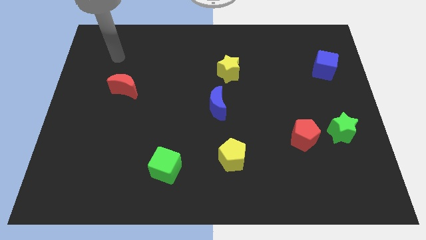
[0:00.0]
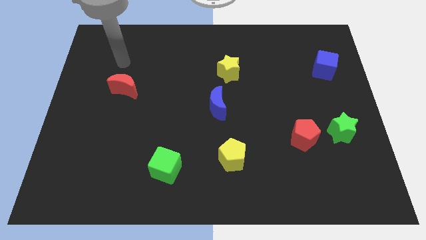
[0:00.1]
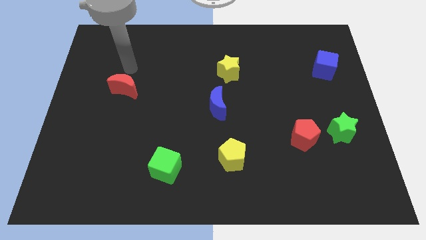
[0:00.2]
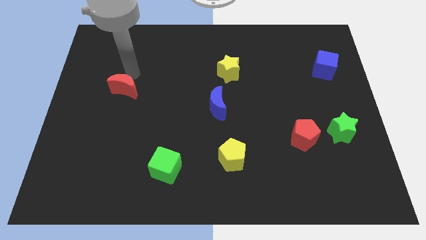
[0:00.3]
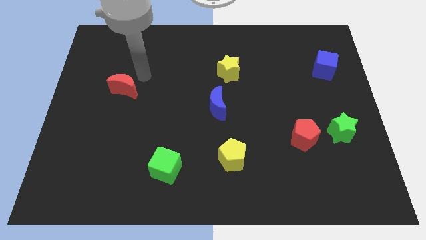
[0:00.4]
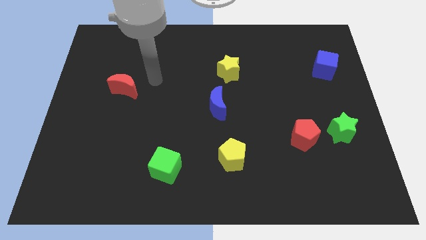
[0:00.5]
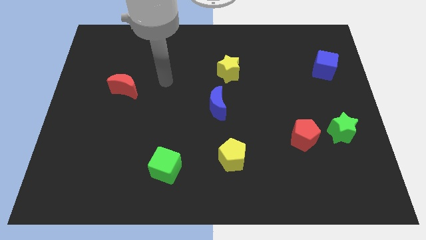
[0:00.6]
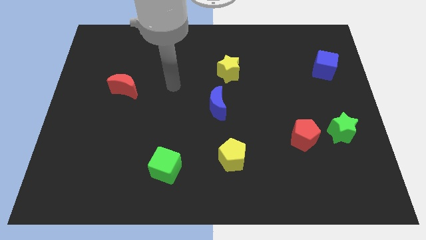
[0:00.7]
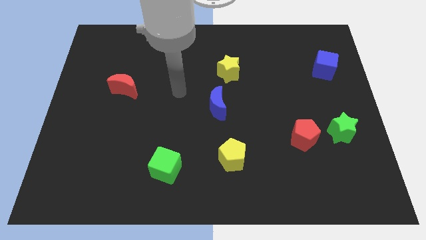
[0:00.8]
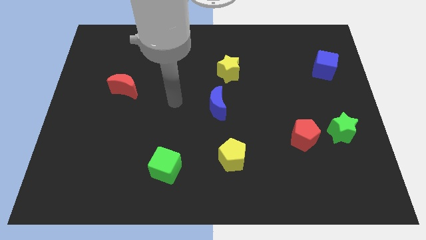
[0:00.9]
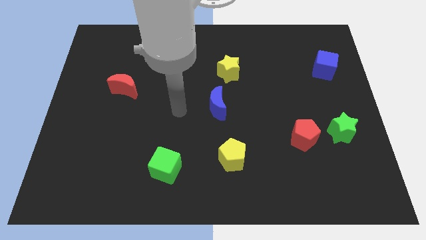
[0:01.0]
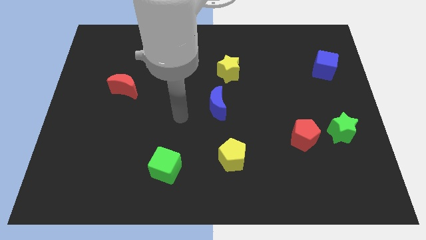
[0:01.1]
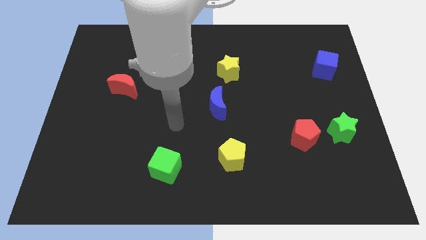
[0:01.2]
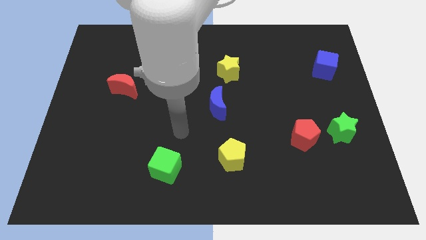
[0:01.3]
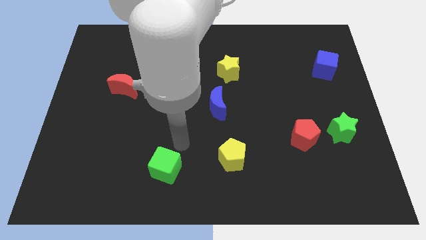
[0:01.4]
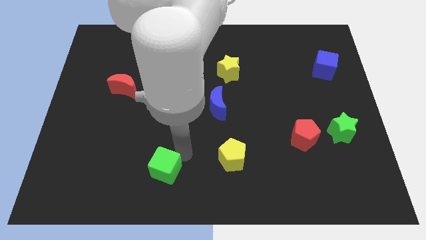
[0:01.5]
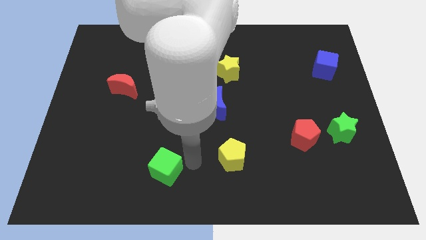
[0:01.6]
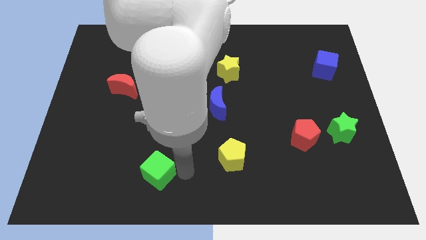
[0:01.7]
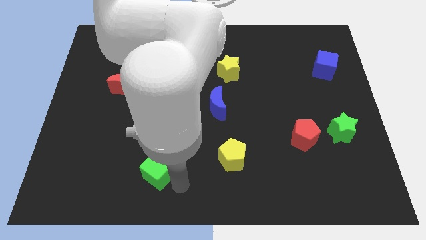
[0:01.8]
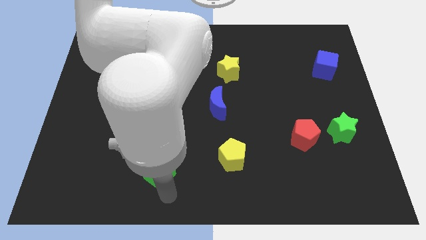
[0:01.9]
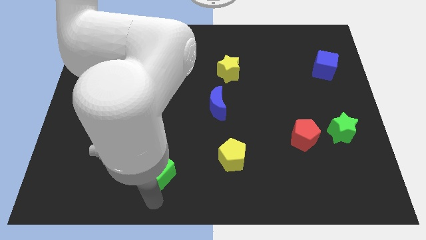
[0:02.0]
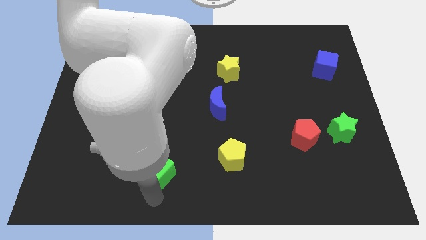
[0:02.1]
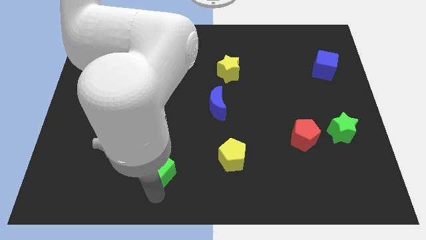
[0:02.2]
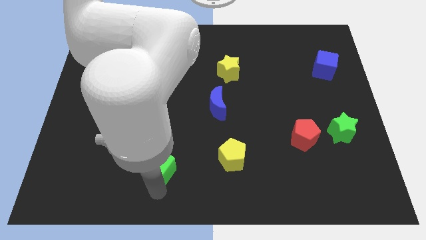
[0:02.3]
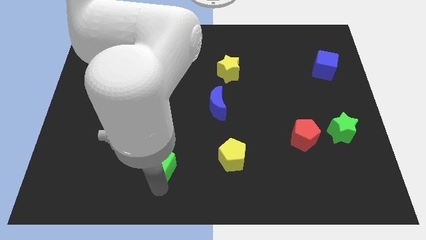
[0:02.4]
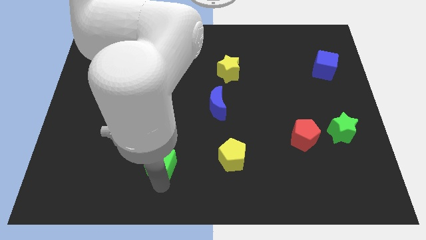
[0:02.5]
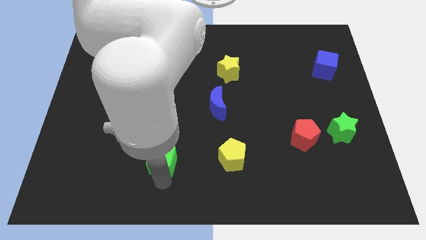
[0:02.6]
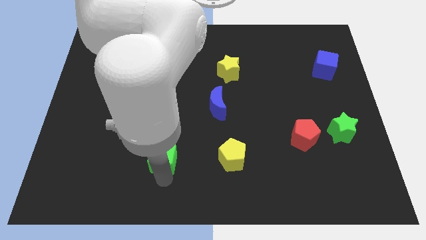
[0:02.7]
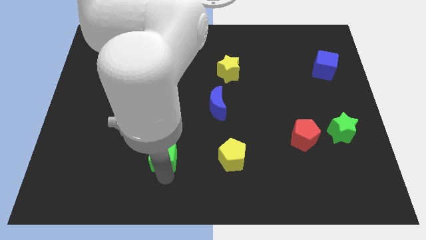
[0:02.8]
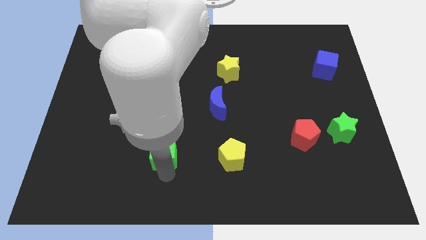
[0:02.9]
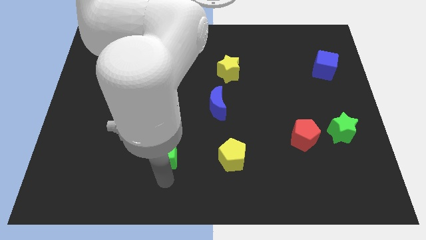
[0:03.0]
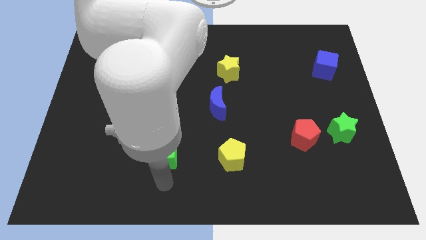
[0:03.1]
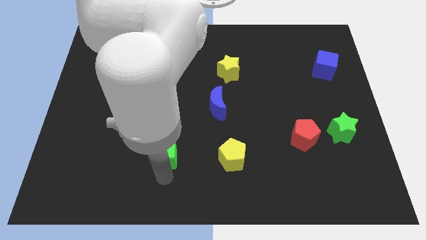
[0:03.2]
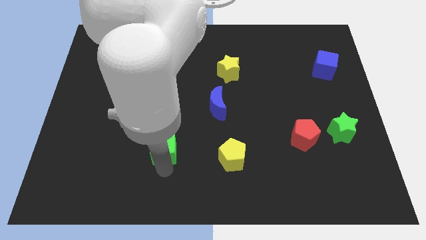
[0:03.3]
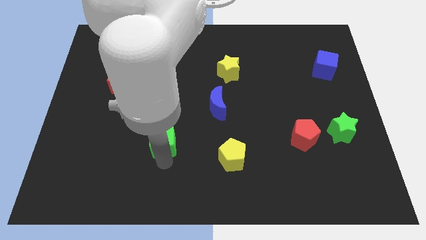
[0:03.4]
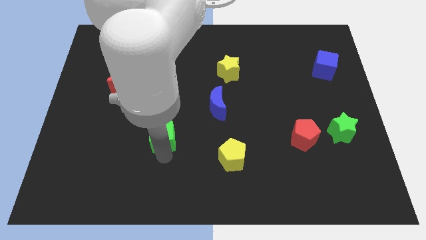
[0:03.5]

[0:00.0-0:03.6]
slide the green cube up somewhat

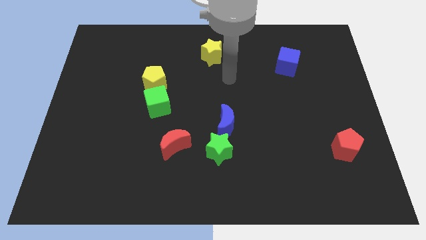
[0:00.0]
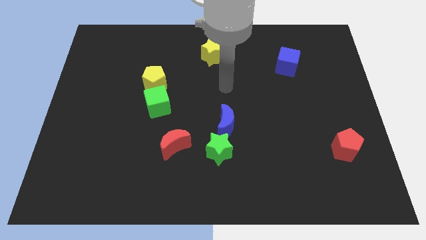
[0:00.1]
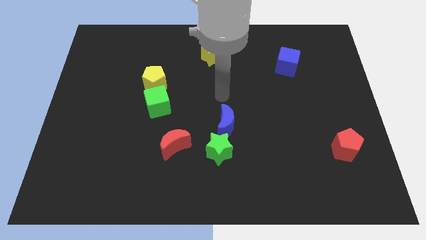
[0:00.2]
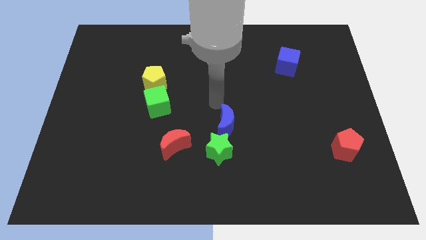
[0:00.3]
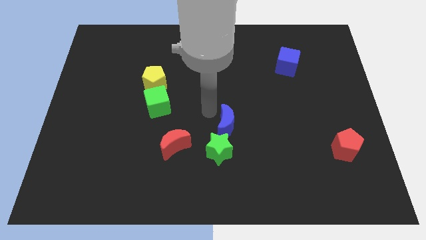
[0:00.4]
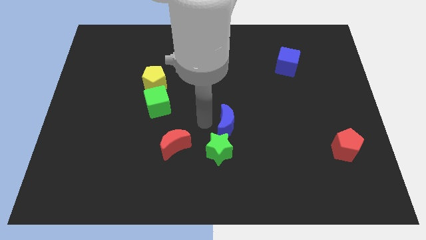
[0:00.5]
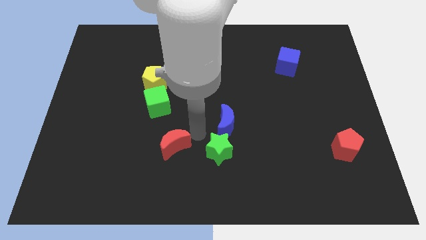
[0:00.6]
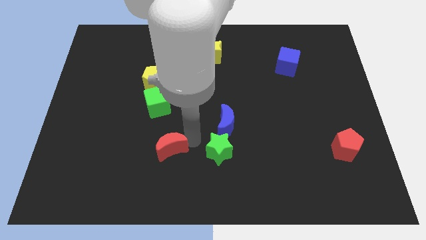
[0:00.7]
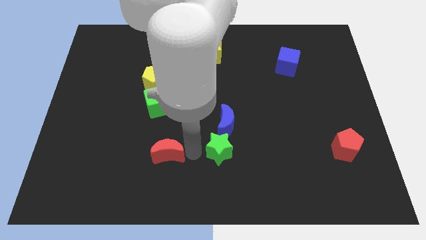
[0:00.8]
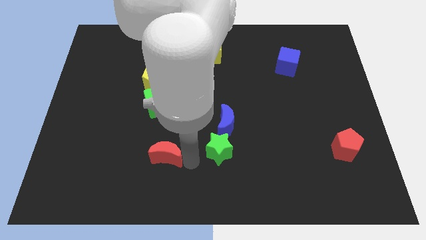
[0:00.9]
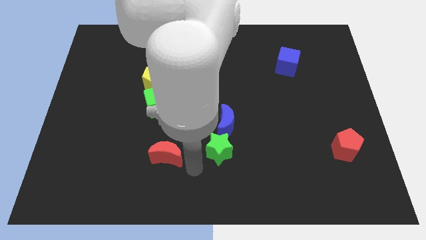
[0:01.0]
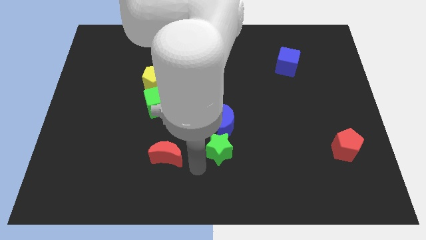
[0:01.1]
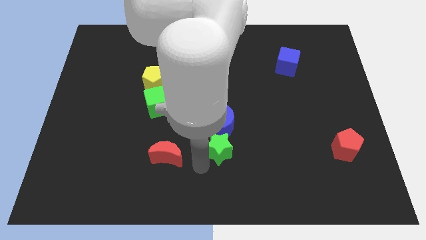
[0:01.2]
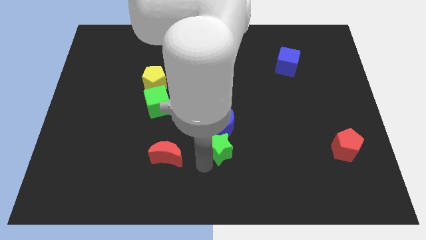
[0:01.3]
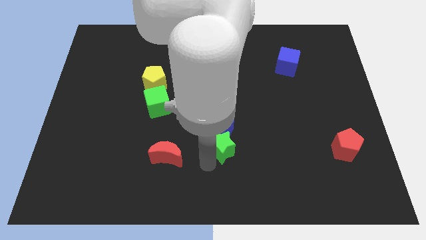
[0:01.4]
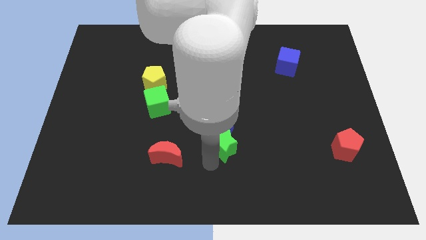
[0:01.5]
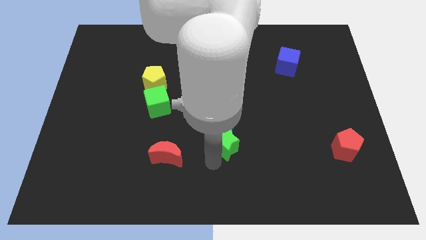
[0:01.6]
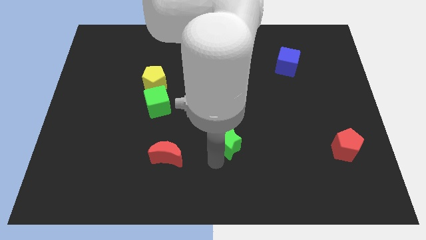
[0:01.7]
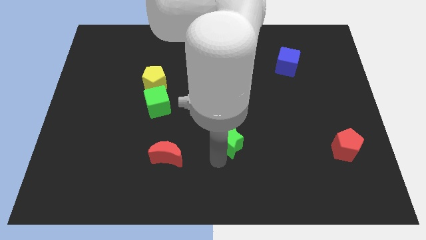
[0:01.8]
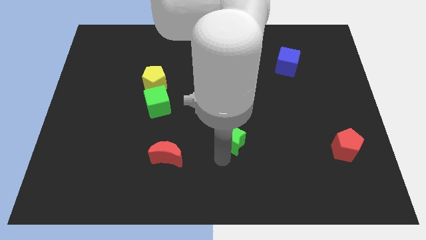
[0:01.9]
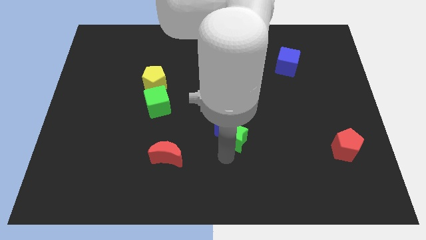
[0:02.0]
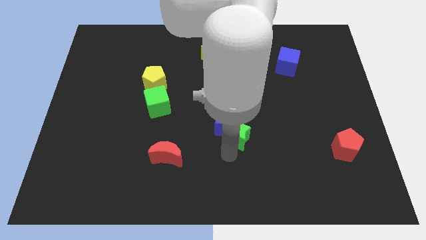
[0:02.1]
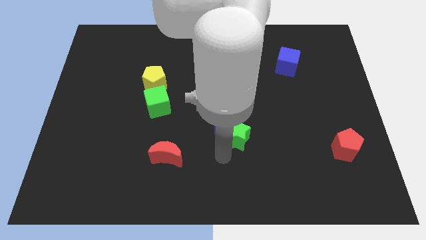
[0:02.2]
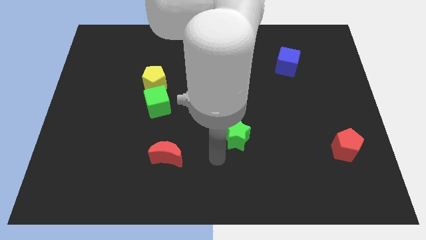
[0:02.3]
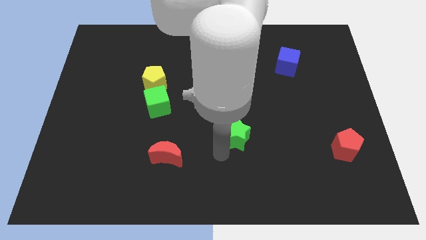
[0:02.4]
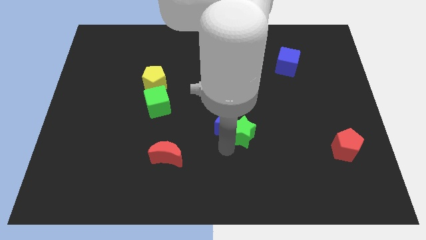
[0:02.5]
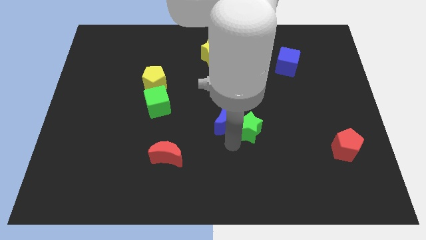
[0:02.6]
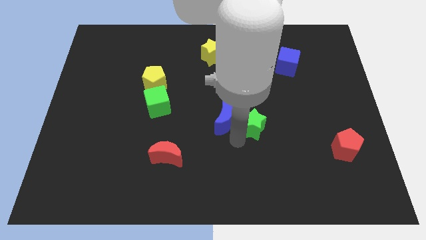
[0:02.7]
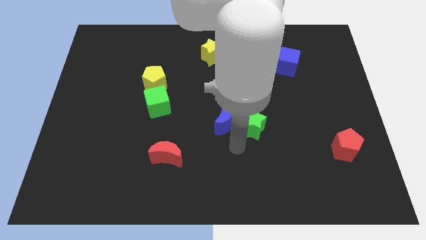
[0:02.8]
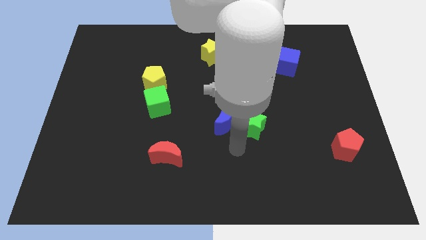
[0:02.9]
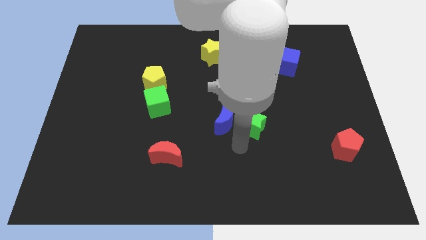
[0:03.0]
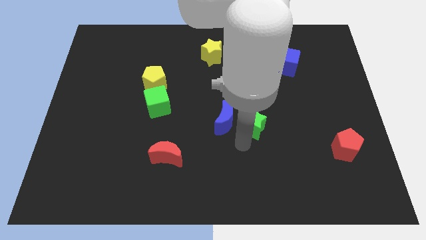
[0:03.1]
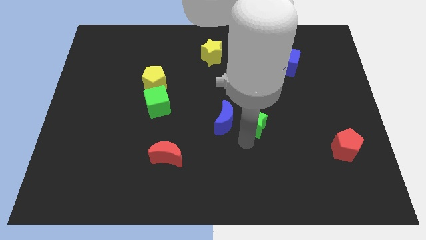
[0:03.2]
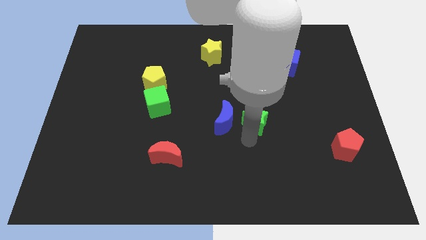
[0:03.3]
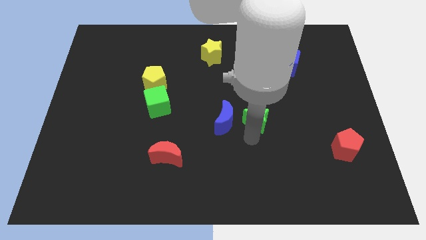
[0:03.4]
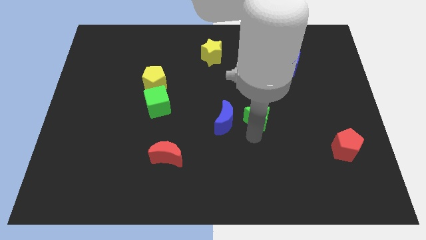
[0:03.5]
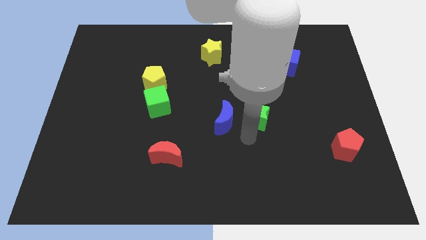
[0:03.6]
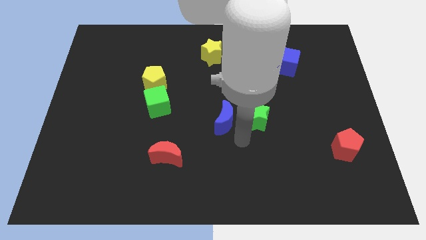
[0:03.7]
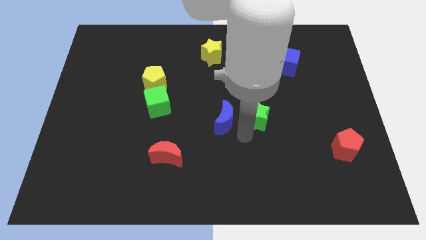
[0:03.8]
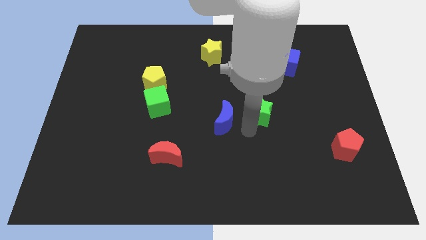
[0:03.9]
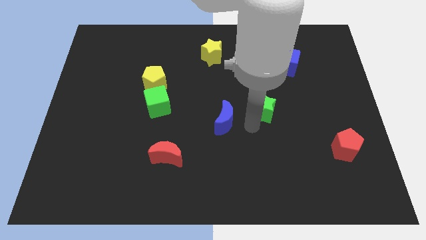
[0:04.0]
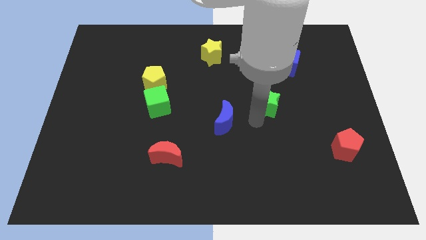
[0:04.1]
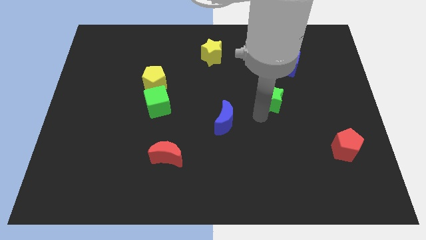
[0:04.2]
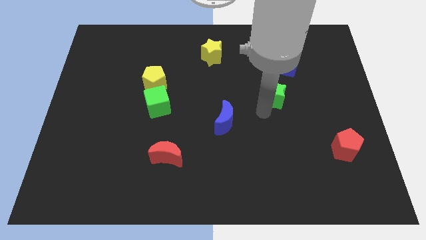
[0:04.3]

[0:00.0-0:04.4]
push the green star upwards and right diagonally
